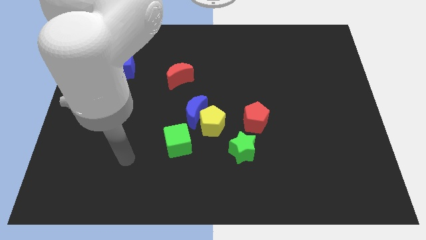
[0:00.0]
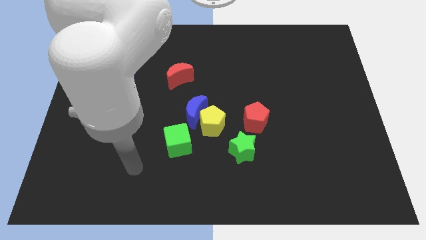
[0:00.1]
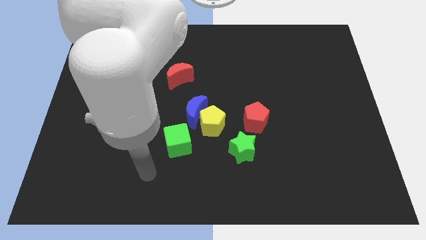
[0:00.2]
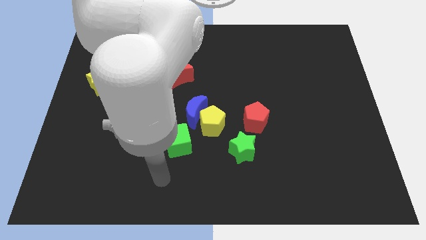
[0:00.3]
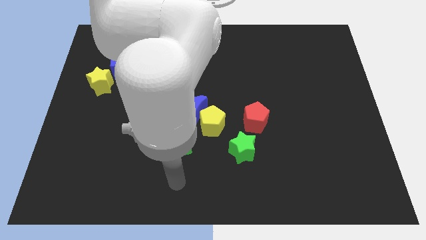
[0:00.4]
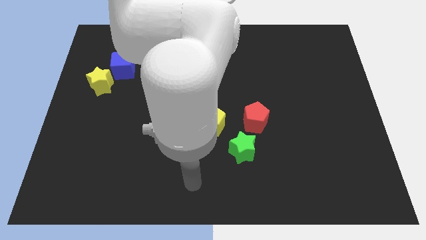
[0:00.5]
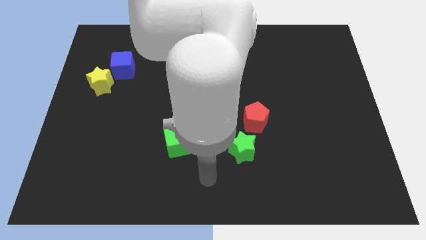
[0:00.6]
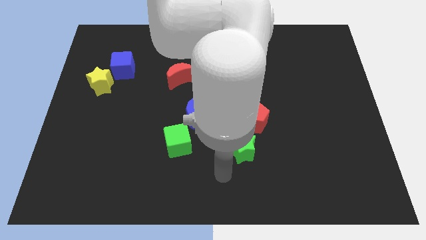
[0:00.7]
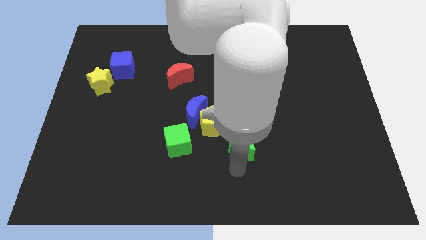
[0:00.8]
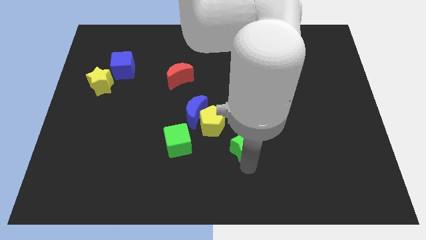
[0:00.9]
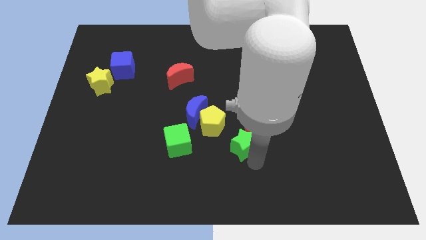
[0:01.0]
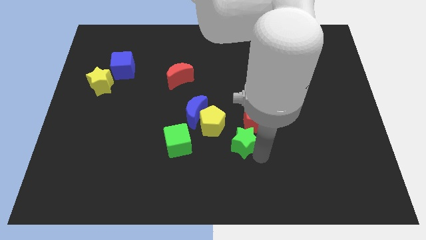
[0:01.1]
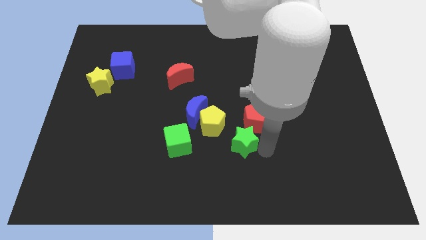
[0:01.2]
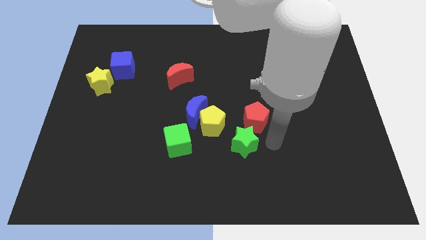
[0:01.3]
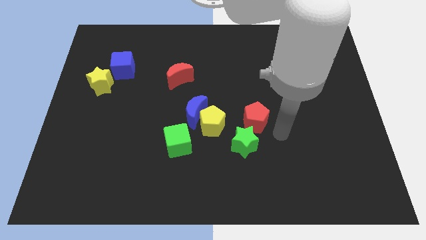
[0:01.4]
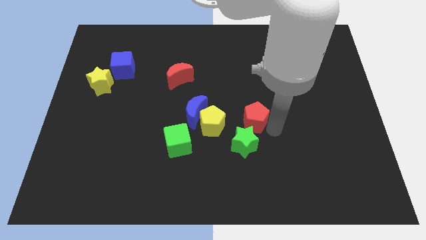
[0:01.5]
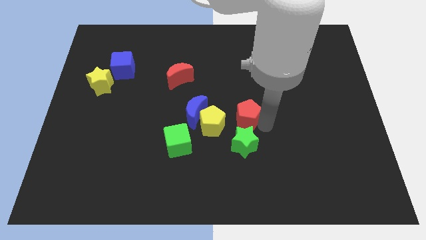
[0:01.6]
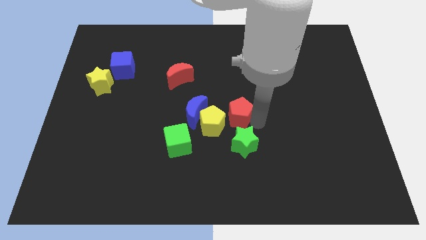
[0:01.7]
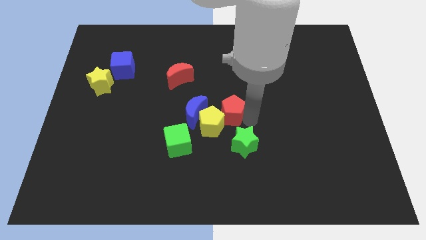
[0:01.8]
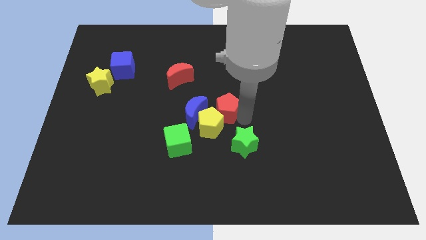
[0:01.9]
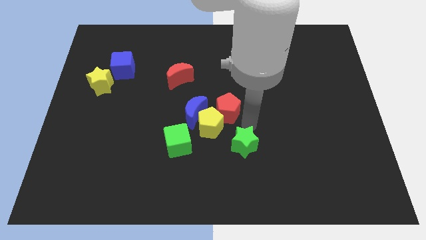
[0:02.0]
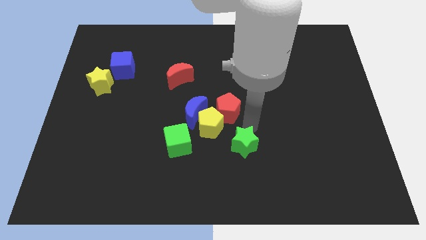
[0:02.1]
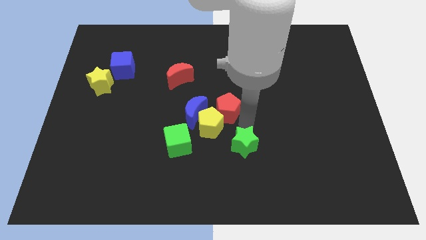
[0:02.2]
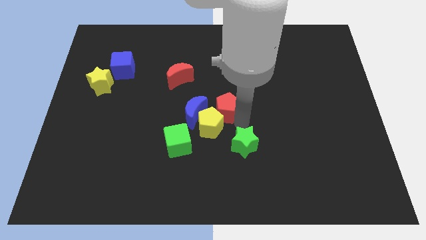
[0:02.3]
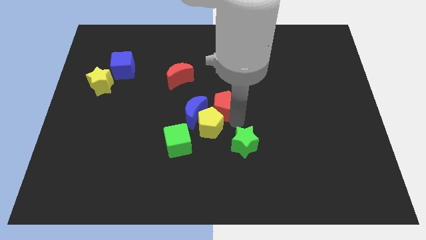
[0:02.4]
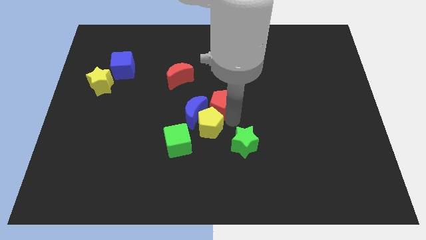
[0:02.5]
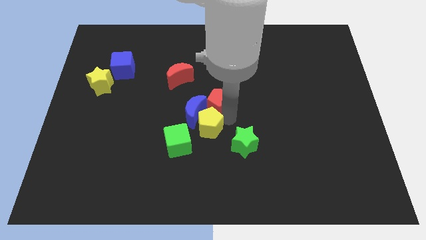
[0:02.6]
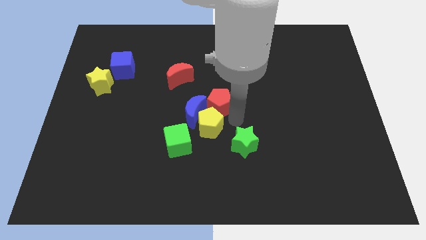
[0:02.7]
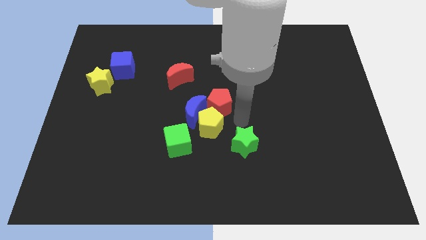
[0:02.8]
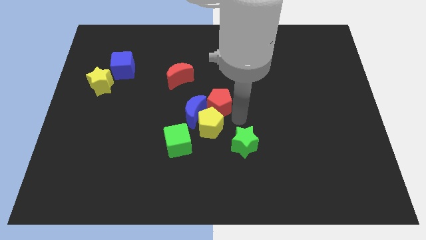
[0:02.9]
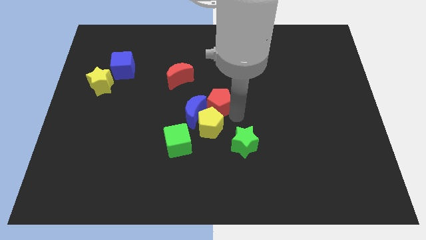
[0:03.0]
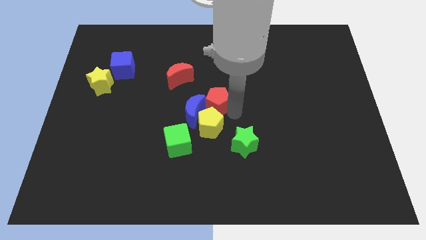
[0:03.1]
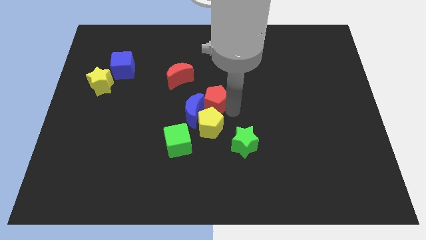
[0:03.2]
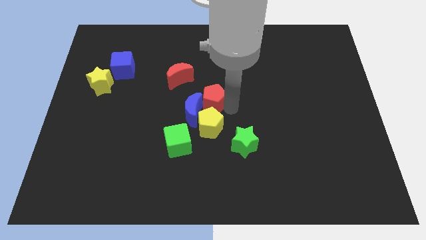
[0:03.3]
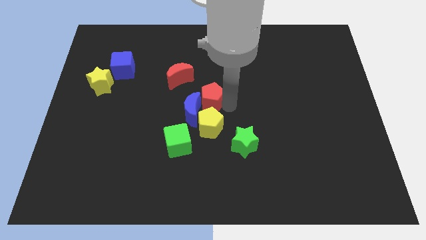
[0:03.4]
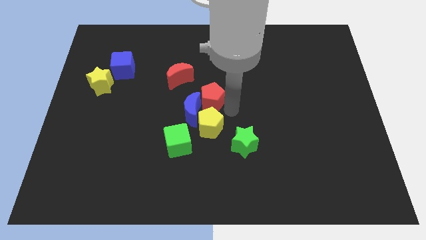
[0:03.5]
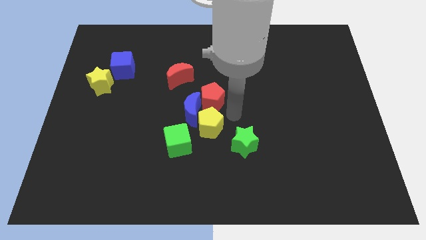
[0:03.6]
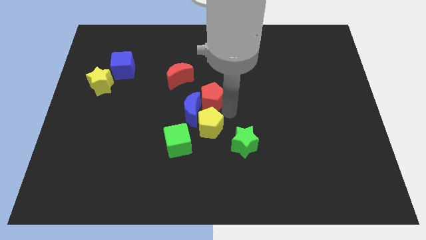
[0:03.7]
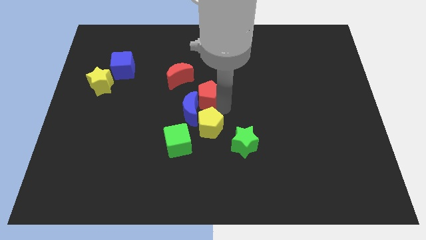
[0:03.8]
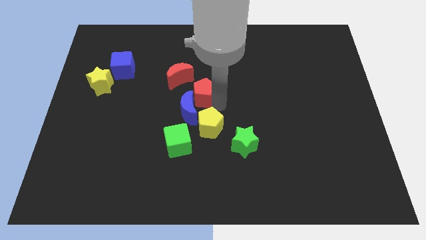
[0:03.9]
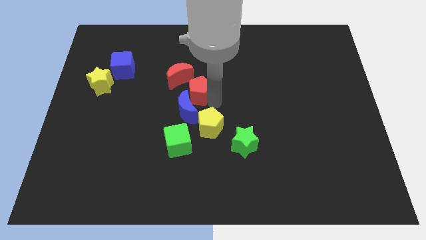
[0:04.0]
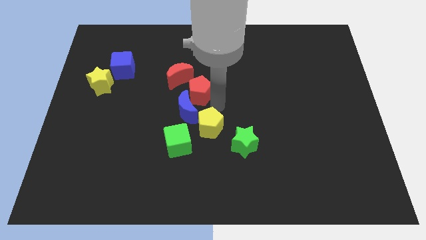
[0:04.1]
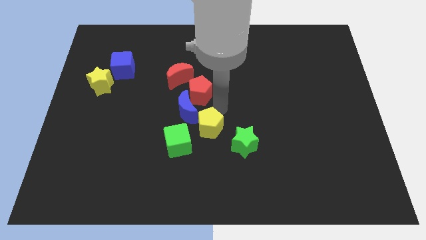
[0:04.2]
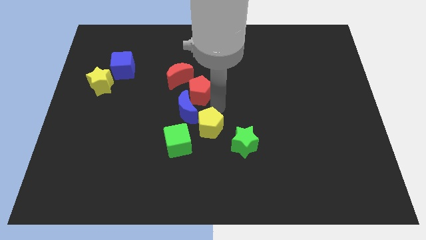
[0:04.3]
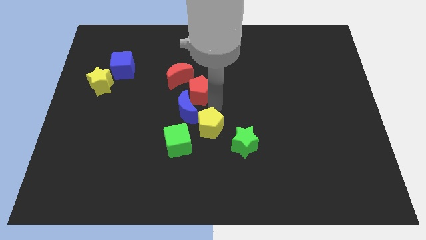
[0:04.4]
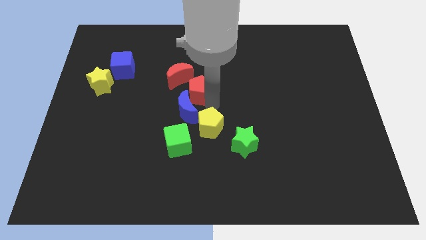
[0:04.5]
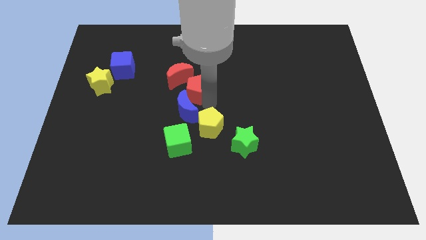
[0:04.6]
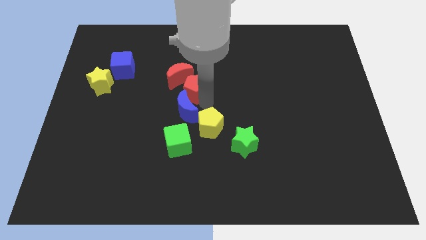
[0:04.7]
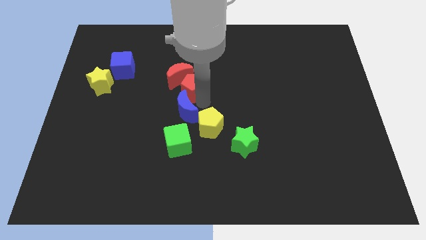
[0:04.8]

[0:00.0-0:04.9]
push the red pentagon close to the red moon

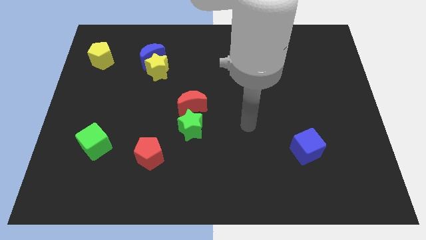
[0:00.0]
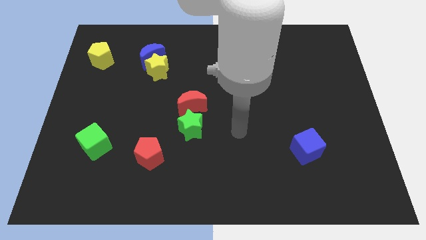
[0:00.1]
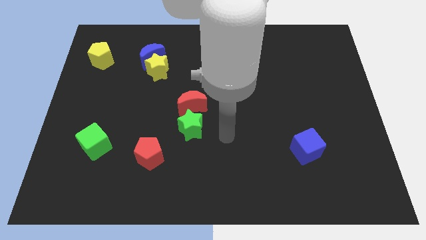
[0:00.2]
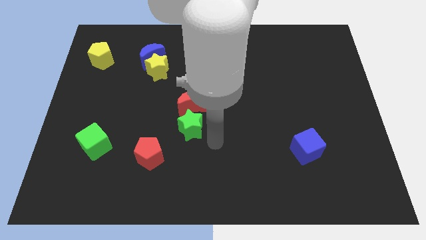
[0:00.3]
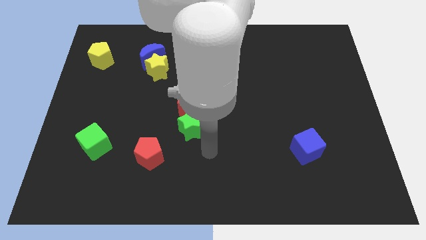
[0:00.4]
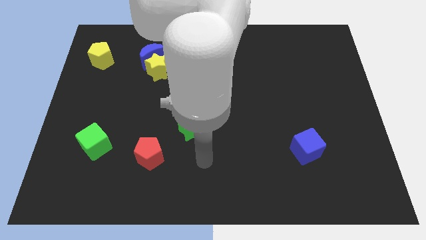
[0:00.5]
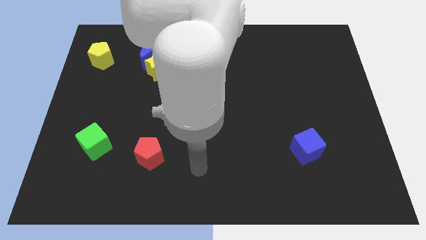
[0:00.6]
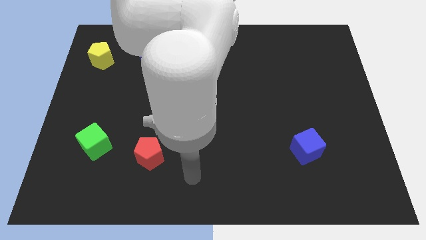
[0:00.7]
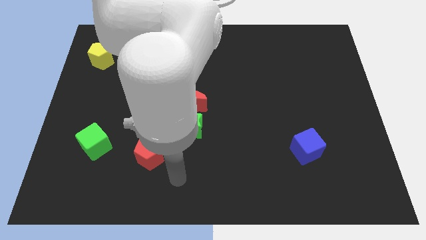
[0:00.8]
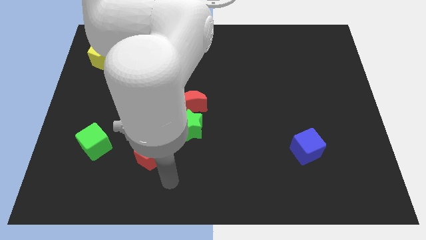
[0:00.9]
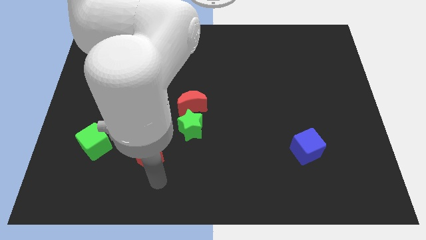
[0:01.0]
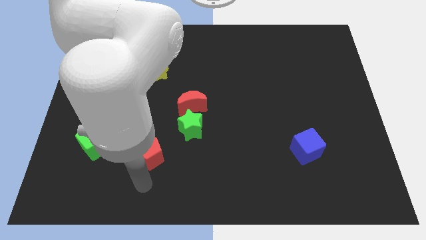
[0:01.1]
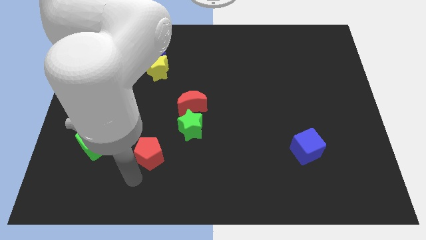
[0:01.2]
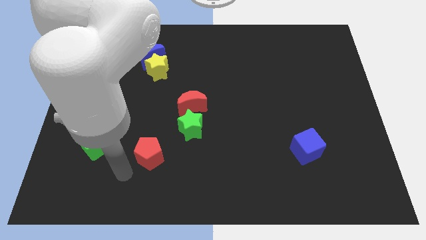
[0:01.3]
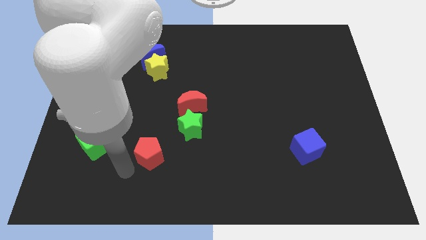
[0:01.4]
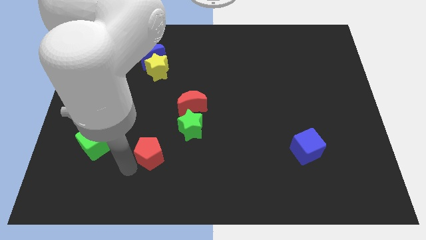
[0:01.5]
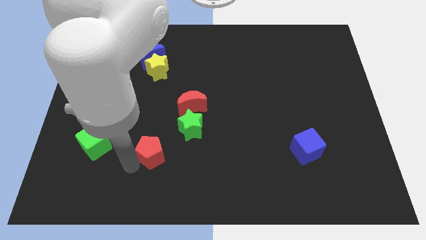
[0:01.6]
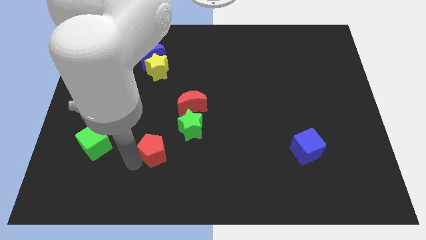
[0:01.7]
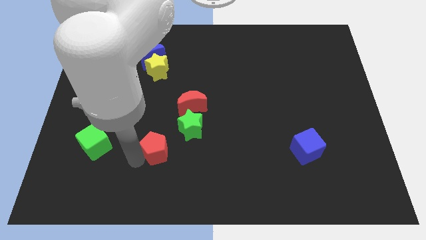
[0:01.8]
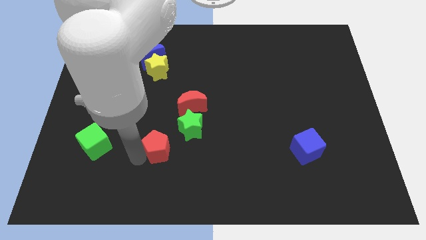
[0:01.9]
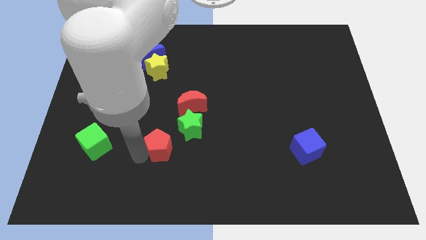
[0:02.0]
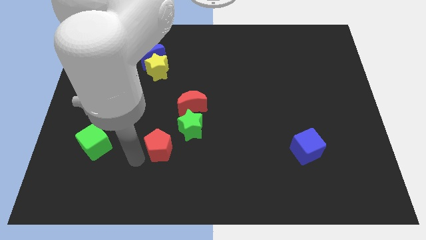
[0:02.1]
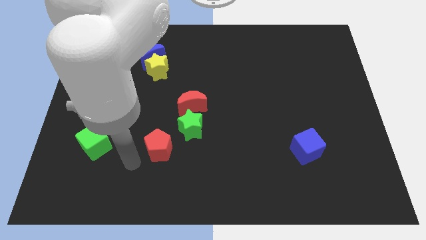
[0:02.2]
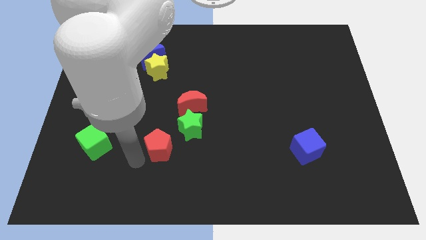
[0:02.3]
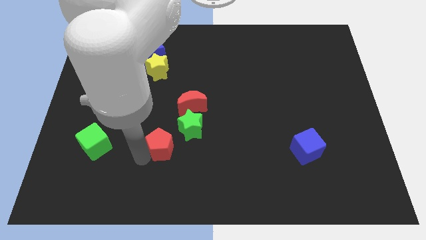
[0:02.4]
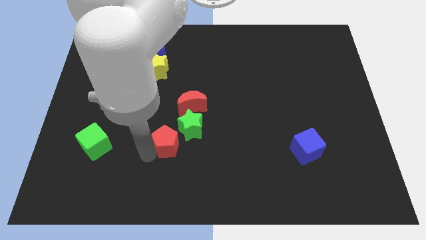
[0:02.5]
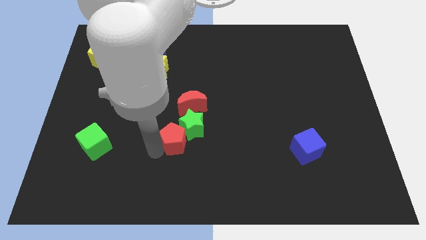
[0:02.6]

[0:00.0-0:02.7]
move the red pentagon to the green star

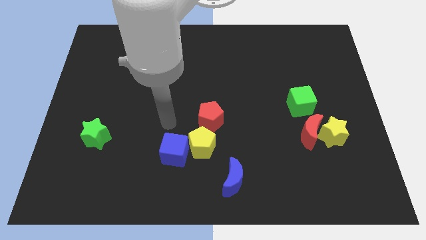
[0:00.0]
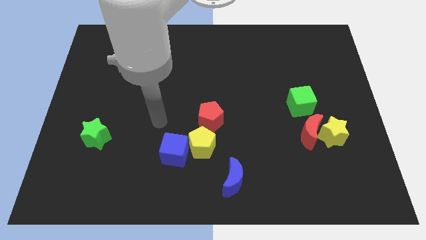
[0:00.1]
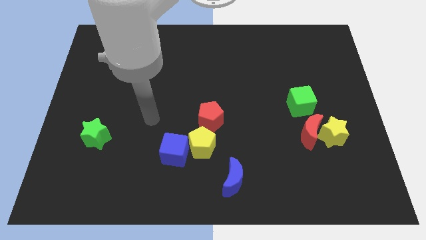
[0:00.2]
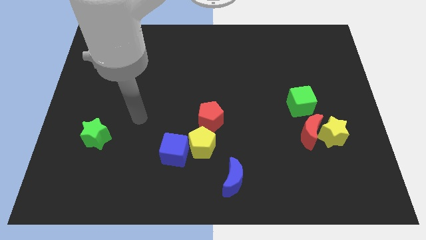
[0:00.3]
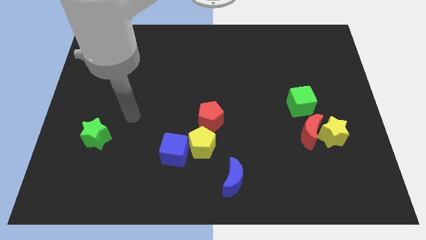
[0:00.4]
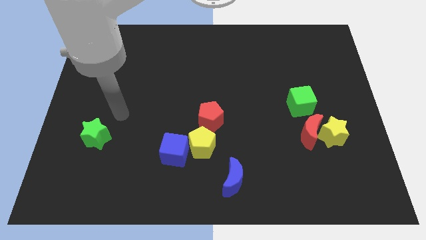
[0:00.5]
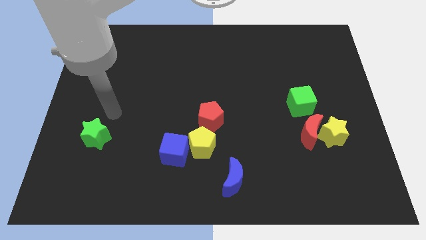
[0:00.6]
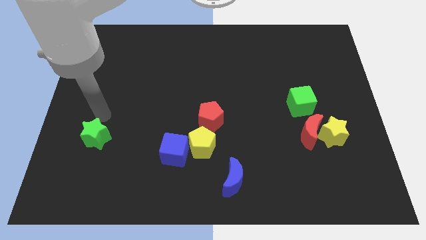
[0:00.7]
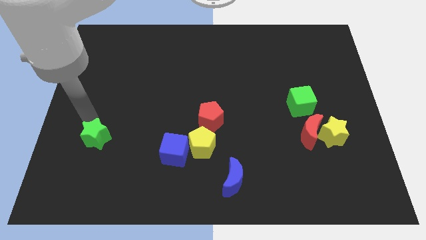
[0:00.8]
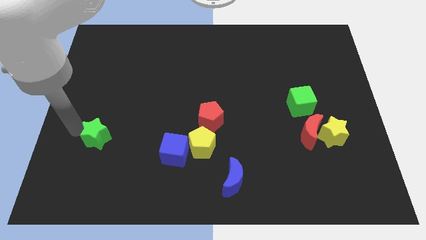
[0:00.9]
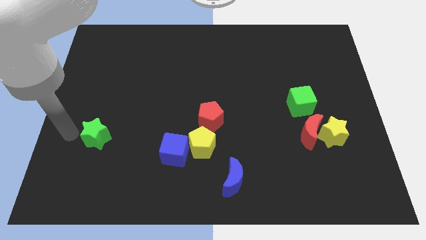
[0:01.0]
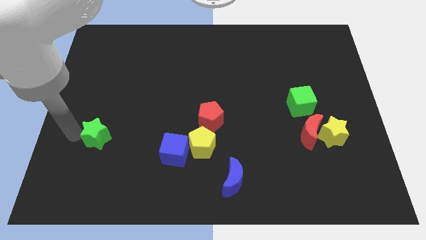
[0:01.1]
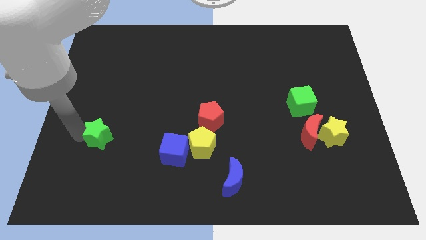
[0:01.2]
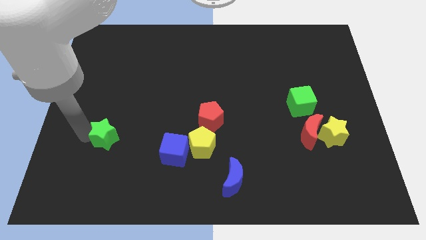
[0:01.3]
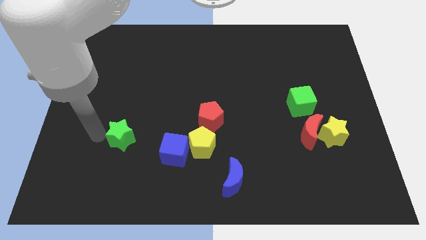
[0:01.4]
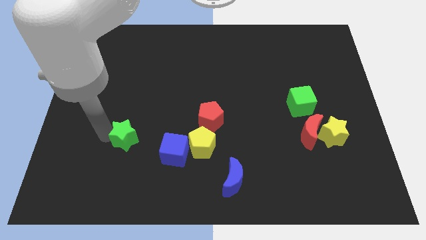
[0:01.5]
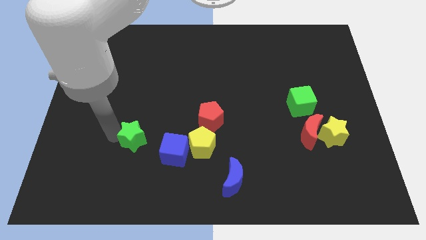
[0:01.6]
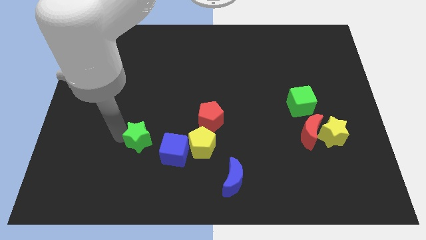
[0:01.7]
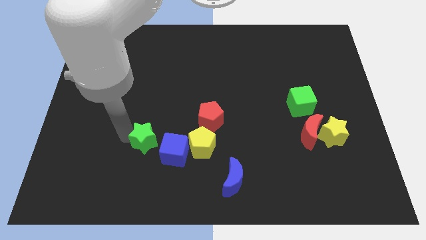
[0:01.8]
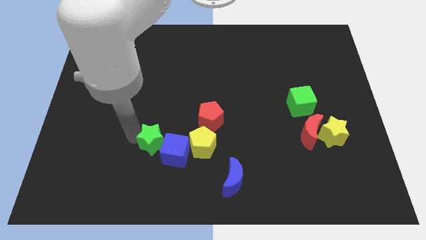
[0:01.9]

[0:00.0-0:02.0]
move the green star next to the blue cube
